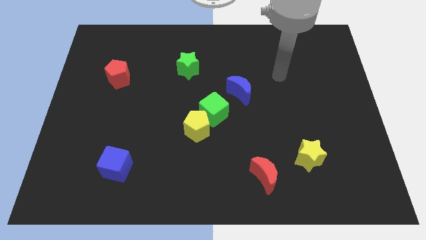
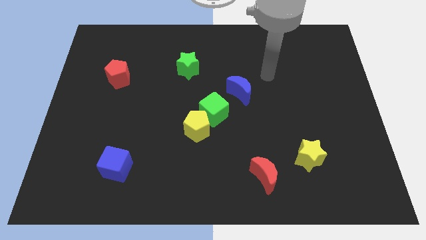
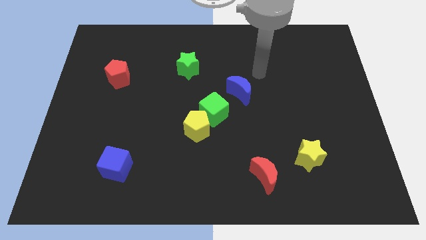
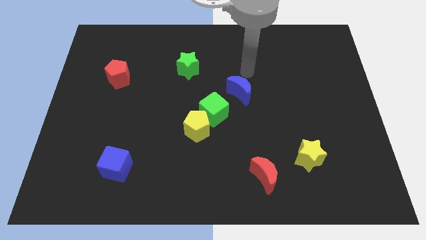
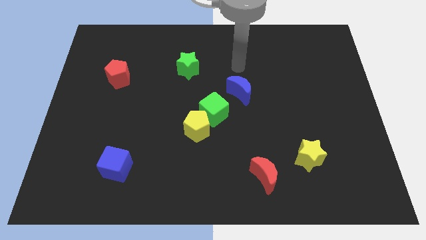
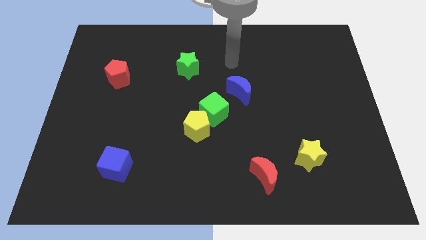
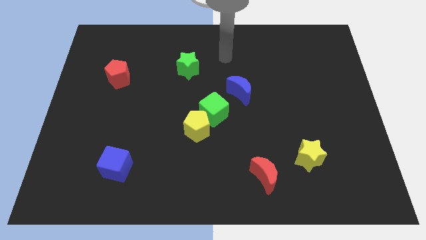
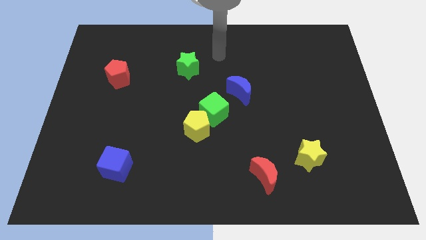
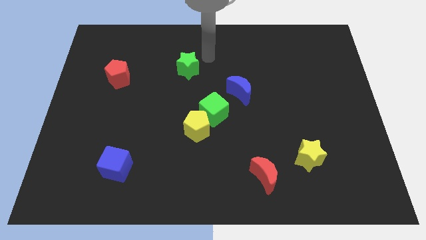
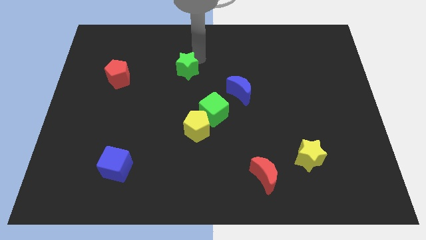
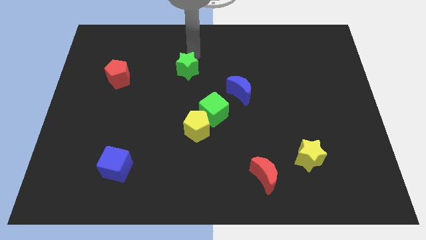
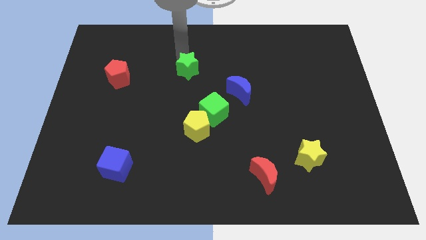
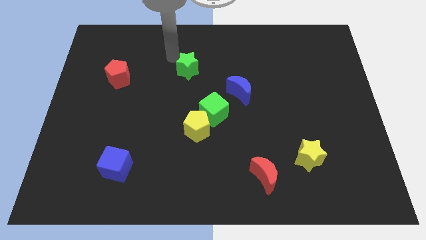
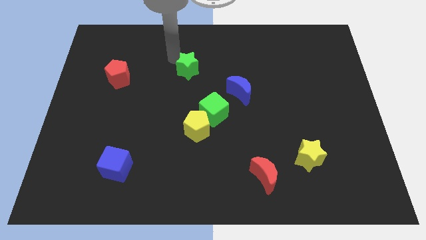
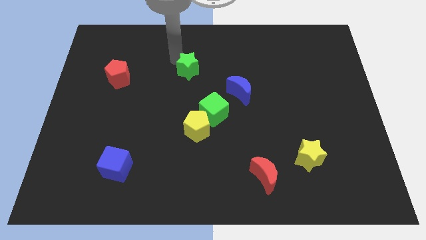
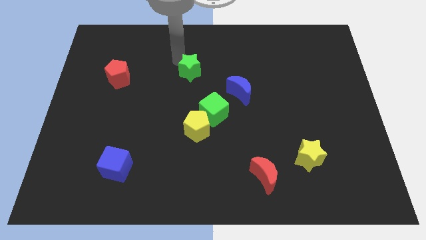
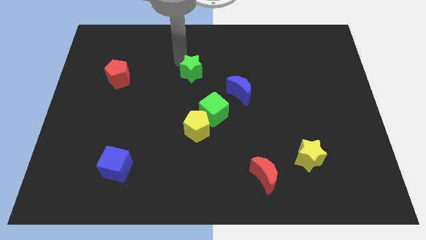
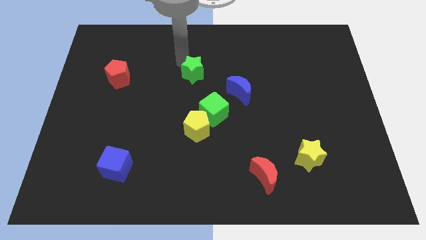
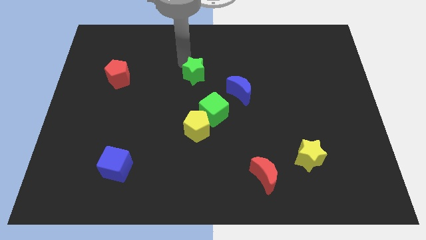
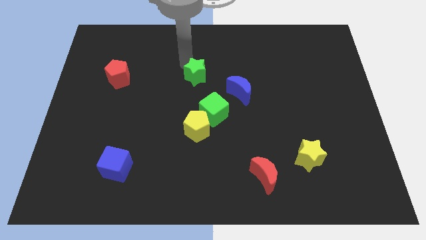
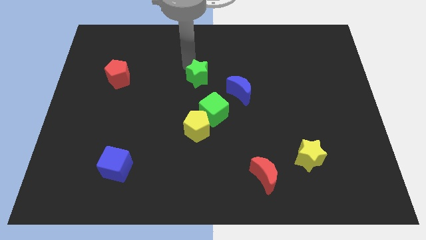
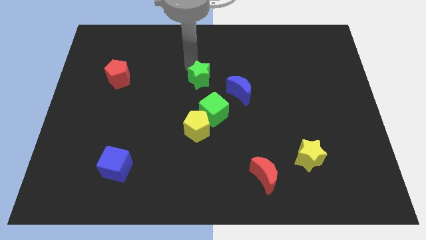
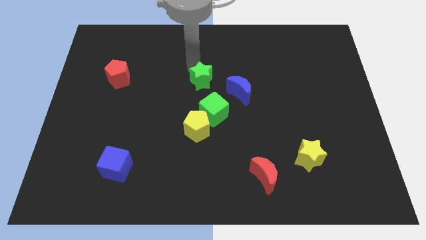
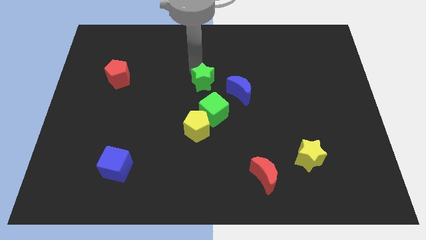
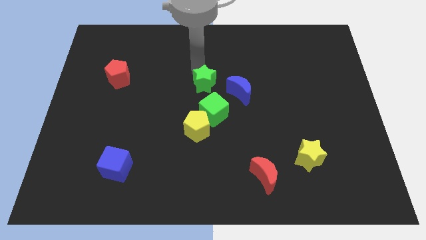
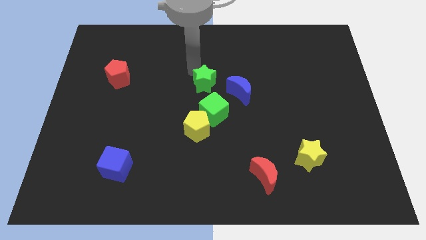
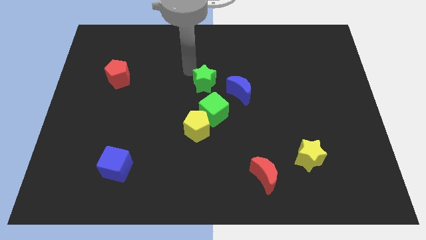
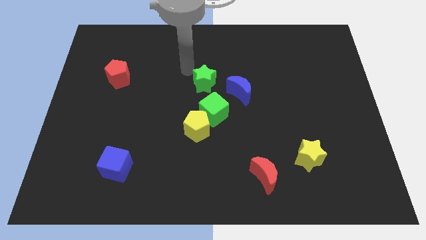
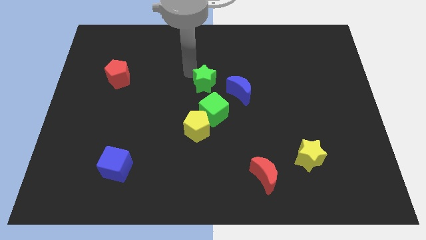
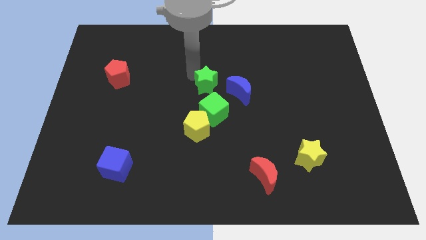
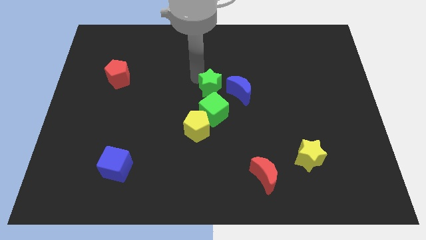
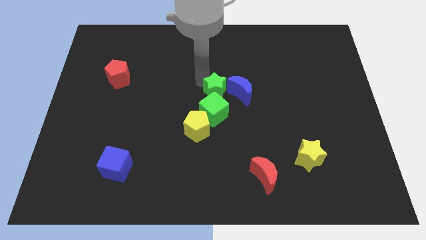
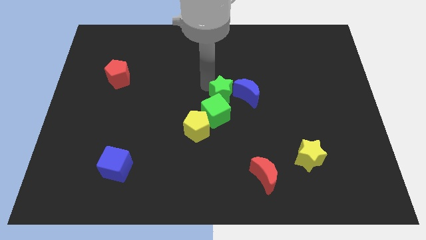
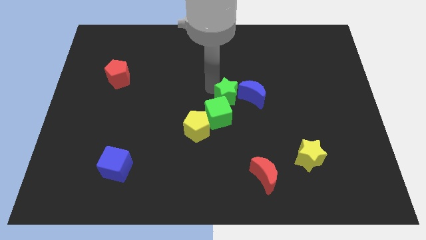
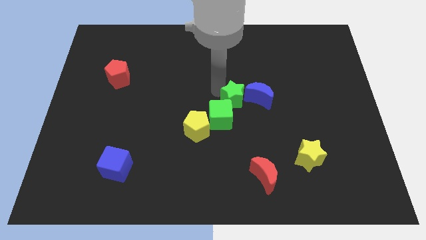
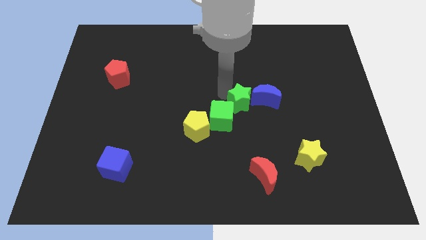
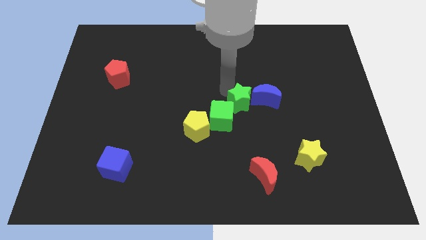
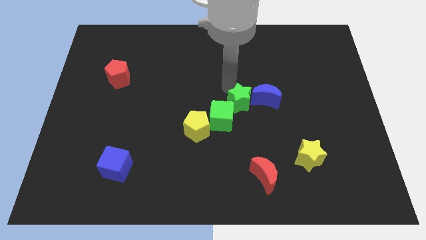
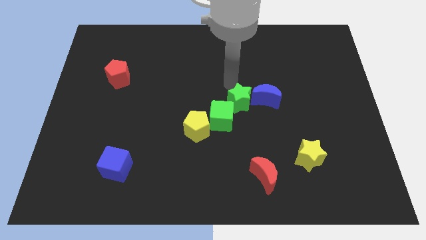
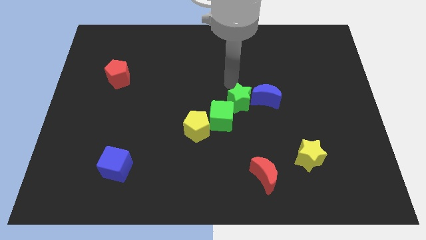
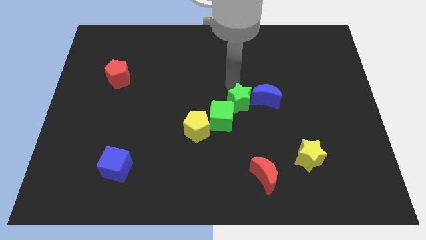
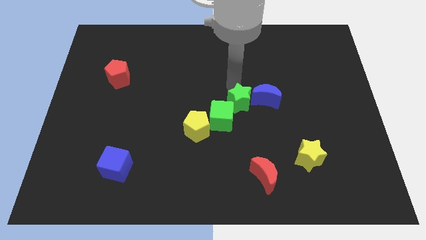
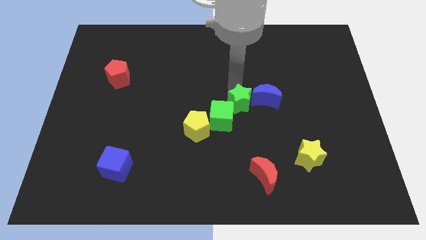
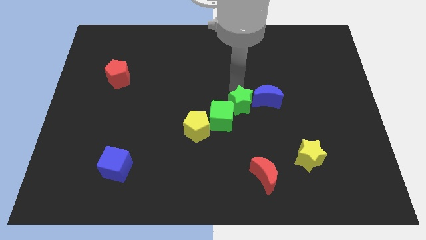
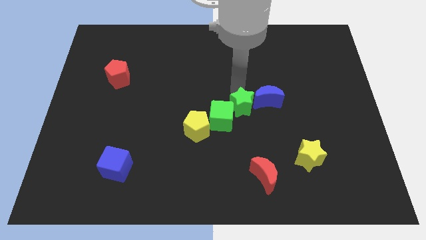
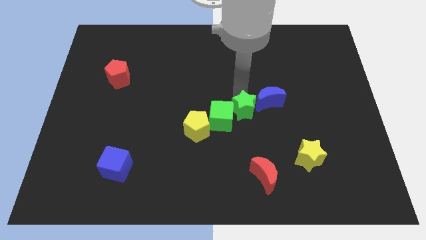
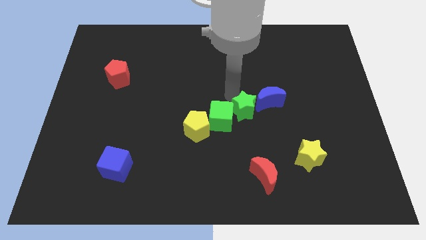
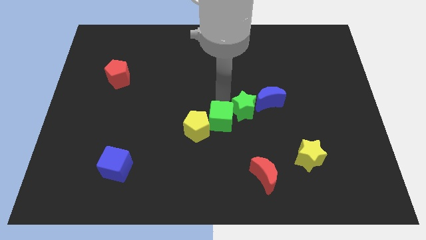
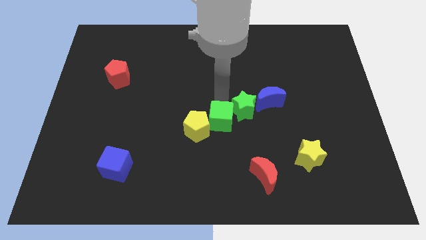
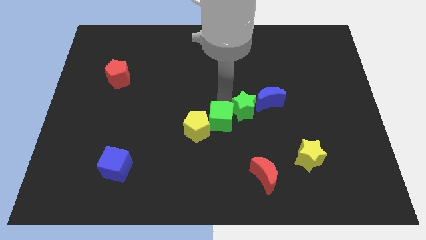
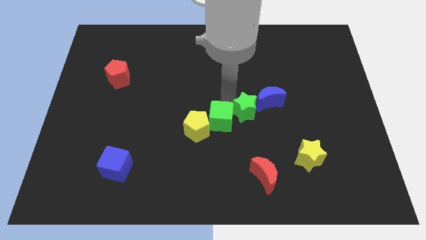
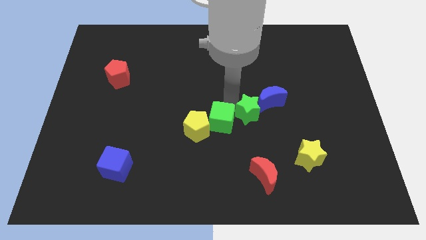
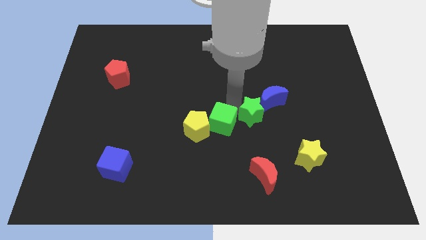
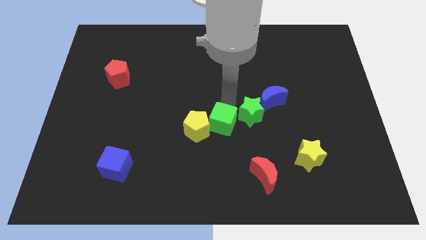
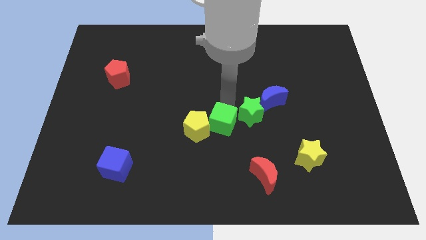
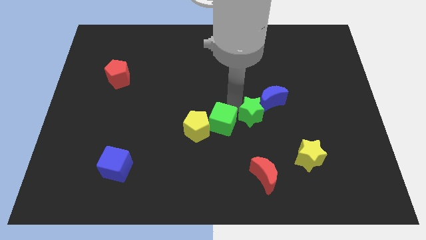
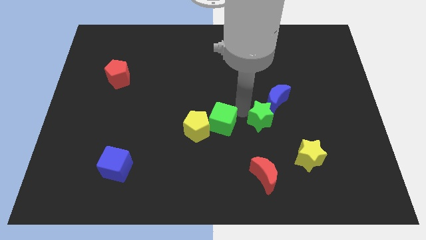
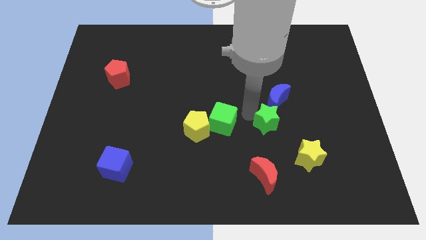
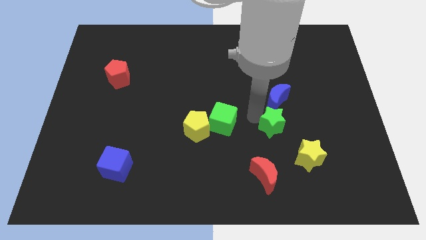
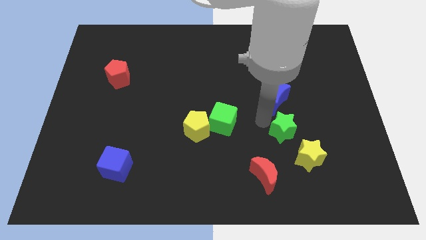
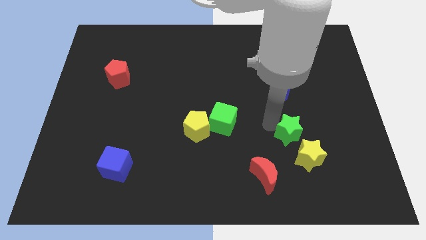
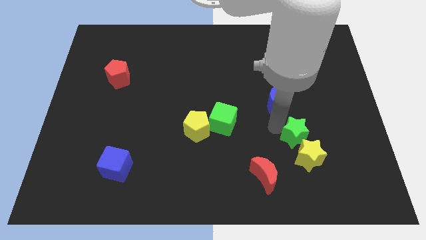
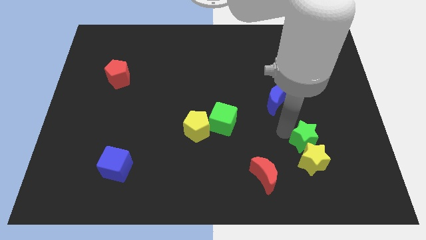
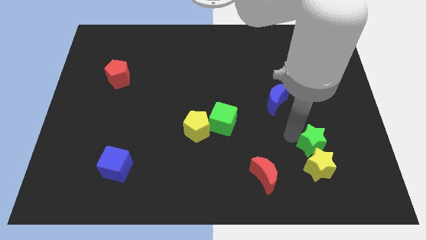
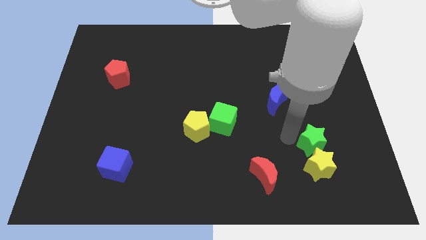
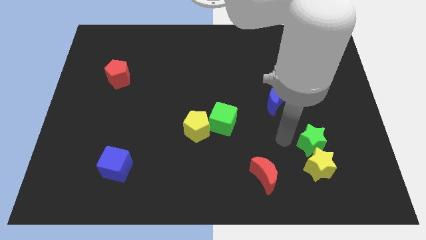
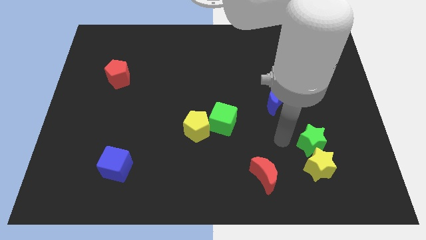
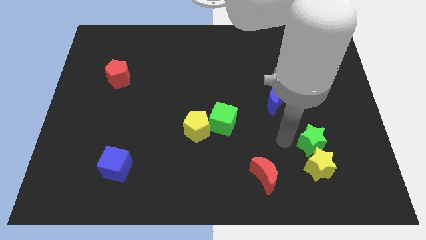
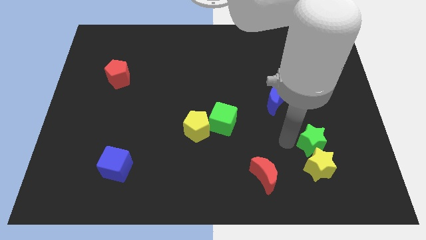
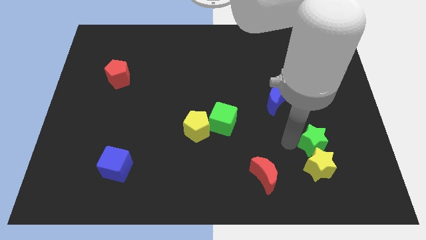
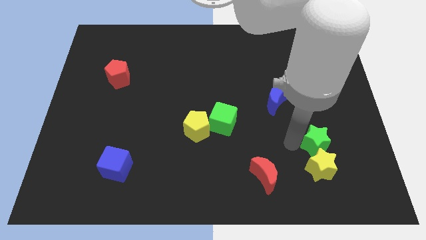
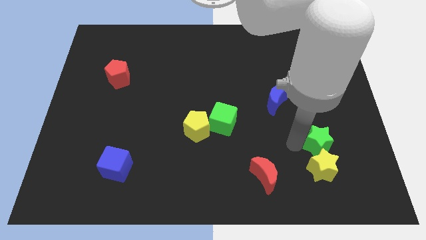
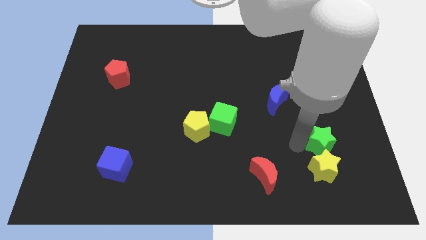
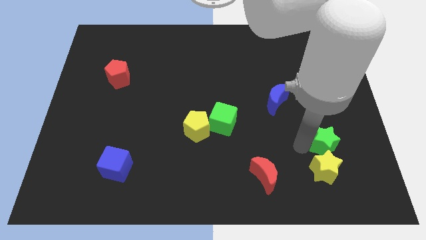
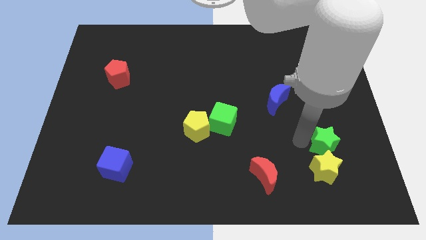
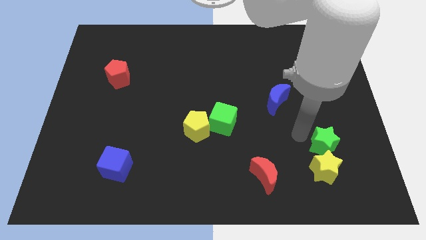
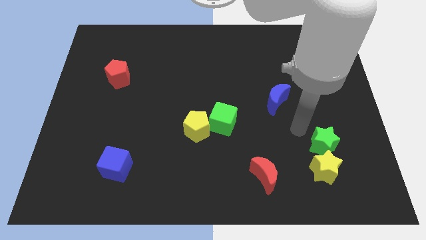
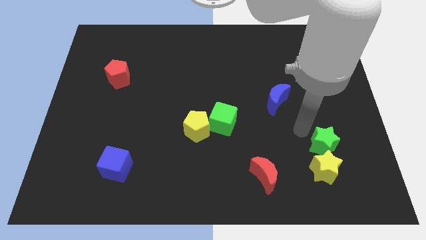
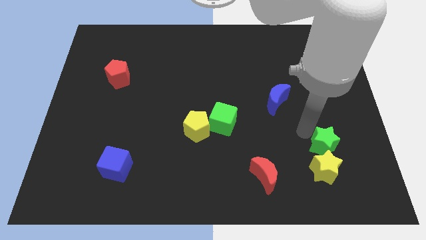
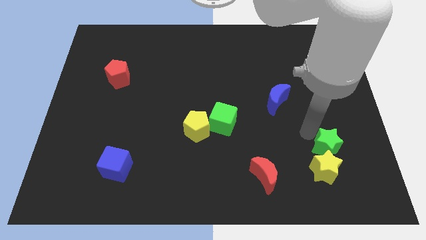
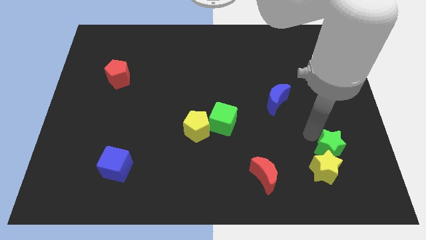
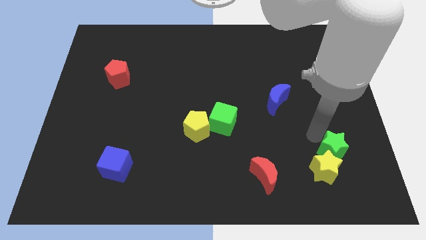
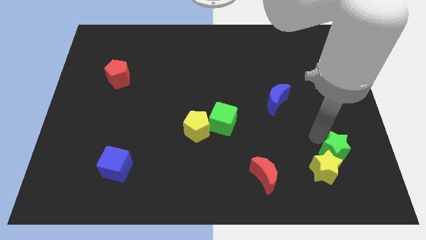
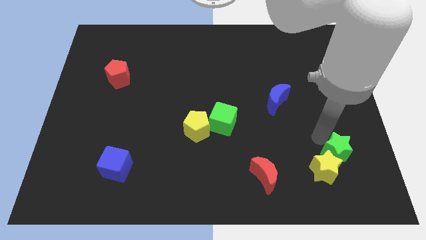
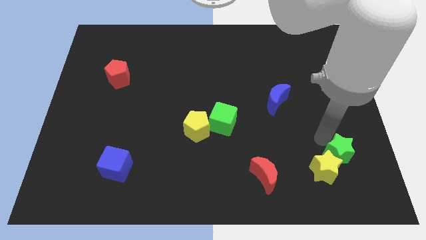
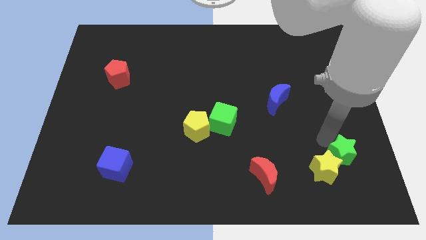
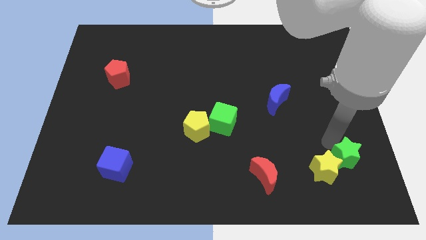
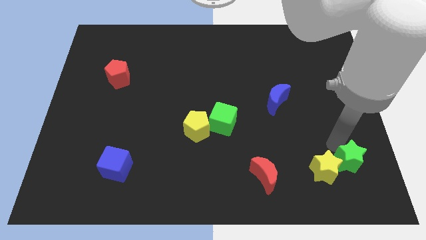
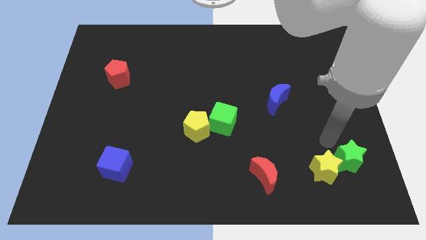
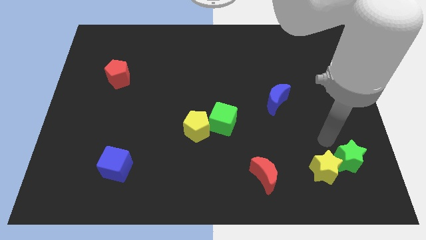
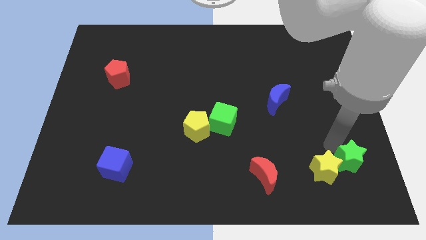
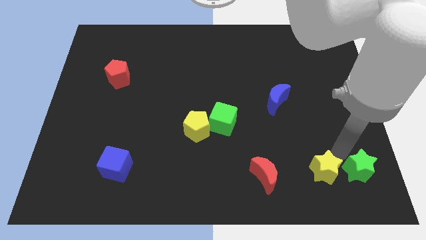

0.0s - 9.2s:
slide the green star to the lower right corner
